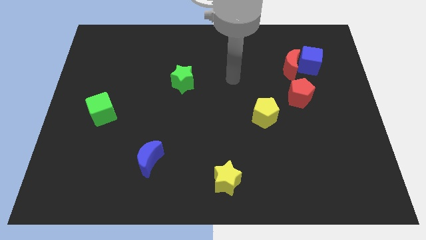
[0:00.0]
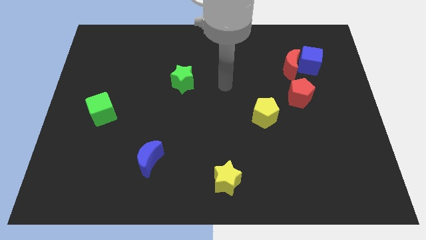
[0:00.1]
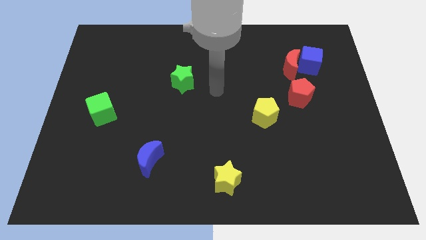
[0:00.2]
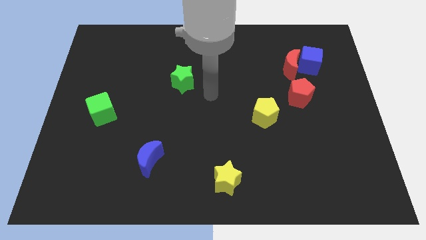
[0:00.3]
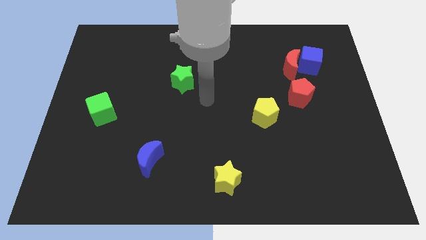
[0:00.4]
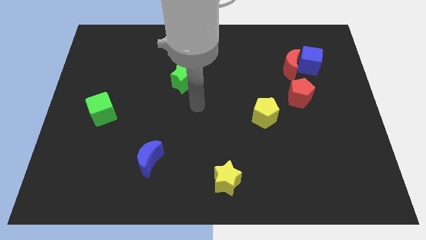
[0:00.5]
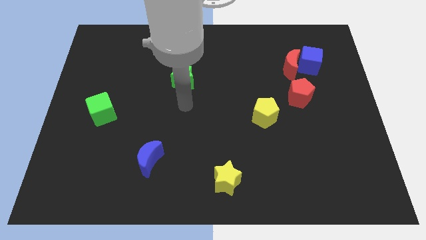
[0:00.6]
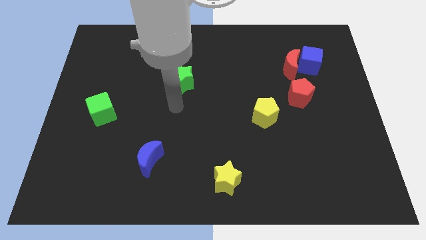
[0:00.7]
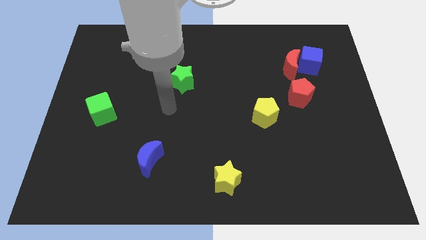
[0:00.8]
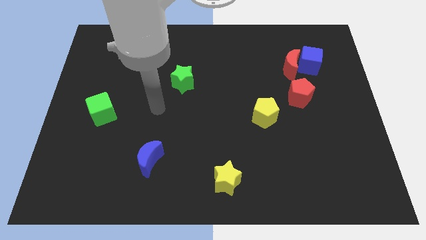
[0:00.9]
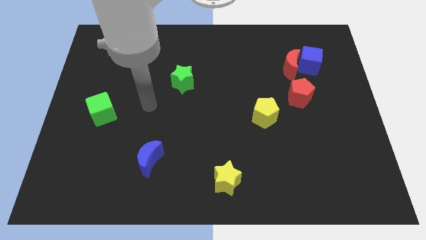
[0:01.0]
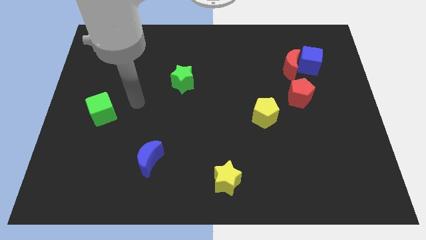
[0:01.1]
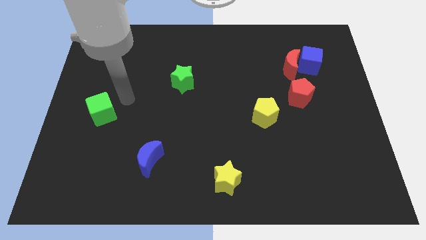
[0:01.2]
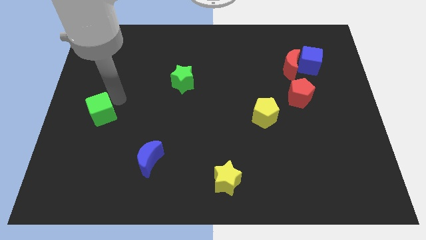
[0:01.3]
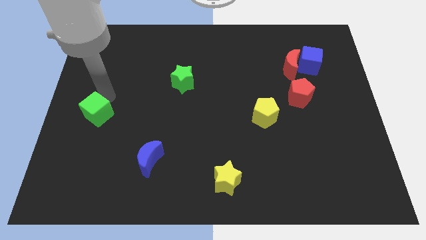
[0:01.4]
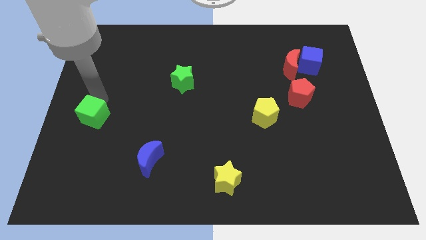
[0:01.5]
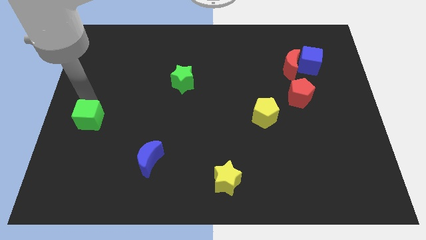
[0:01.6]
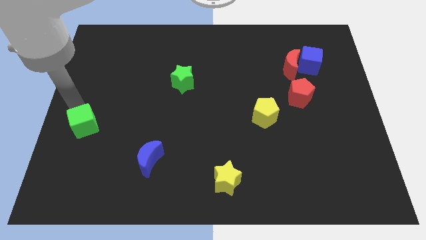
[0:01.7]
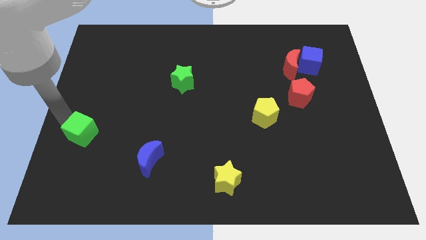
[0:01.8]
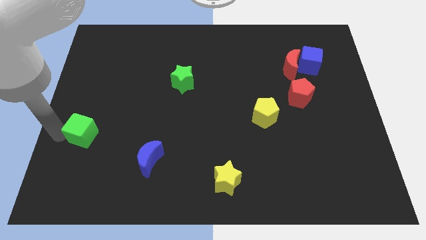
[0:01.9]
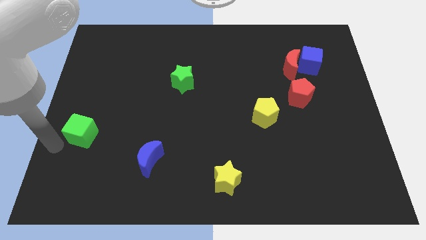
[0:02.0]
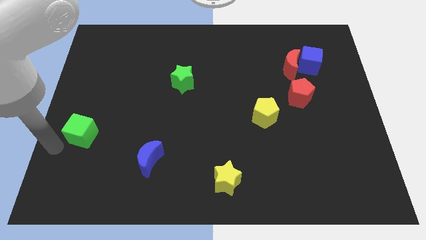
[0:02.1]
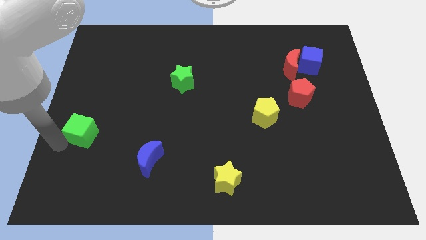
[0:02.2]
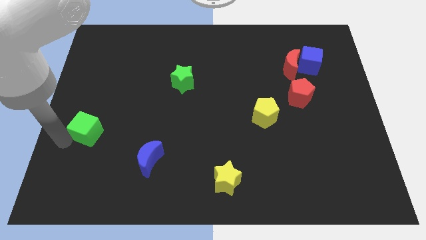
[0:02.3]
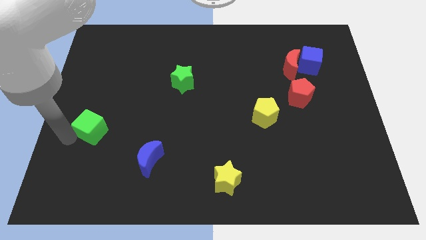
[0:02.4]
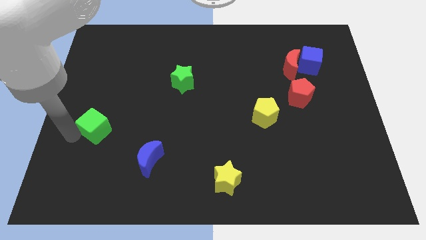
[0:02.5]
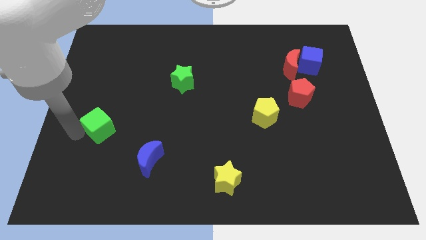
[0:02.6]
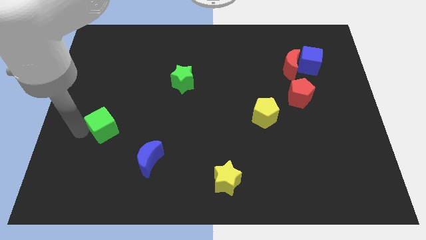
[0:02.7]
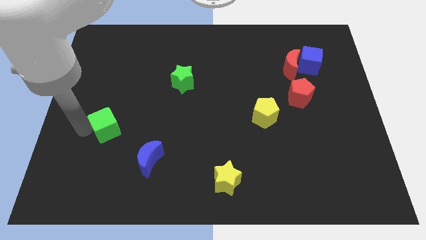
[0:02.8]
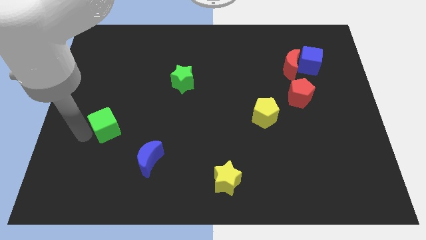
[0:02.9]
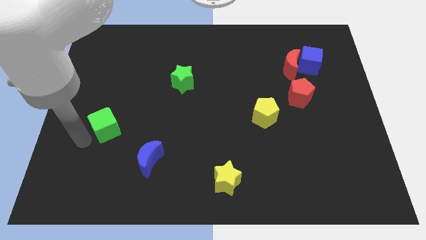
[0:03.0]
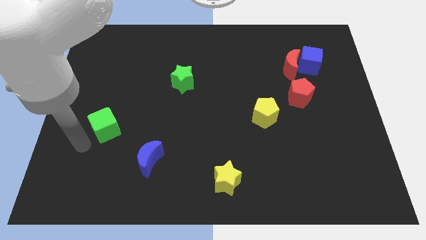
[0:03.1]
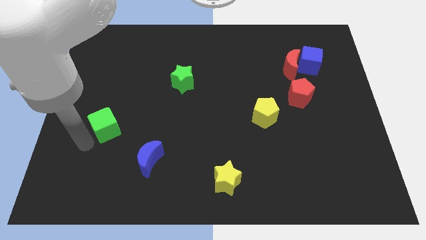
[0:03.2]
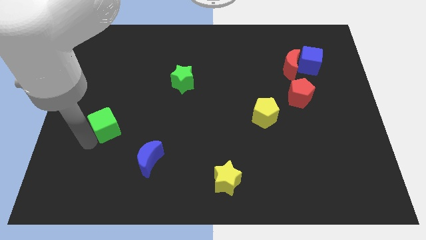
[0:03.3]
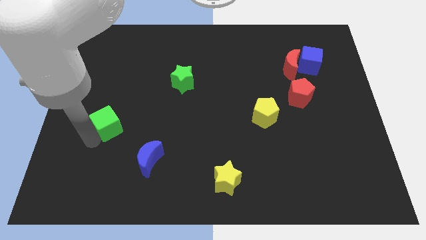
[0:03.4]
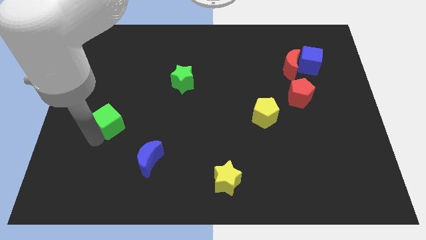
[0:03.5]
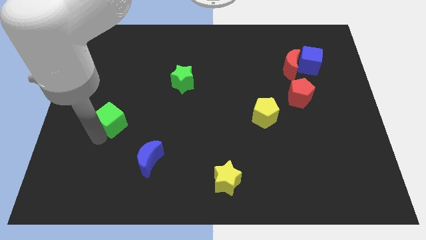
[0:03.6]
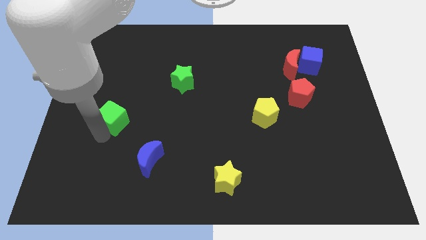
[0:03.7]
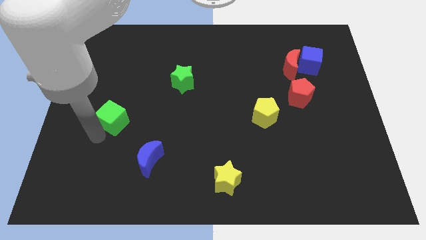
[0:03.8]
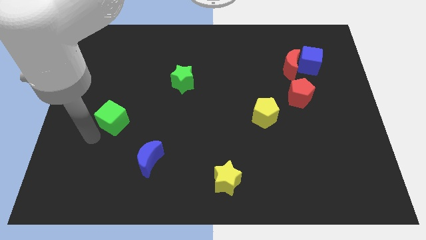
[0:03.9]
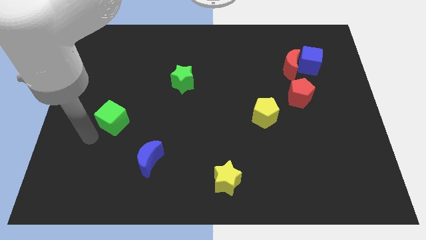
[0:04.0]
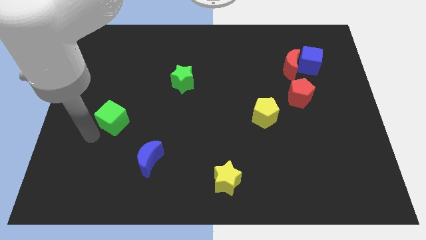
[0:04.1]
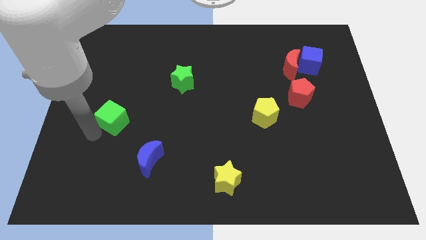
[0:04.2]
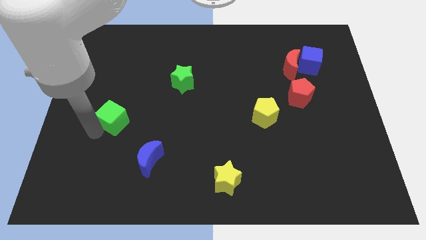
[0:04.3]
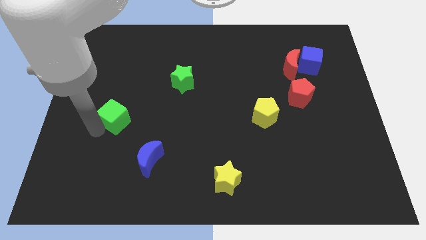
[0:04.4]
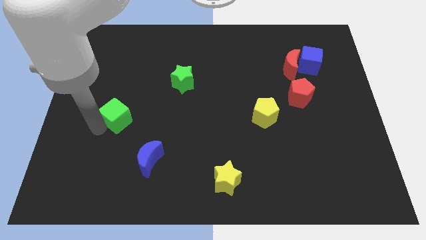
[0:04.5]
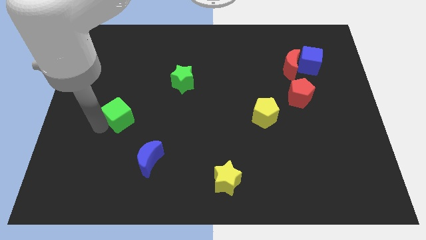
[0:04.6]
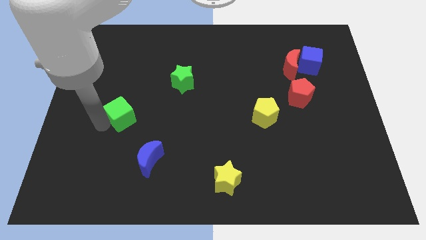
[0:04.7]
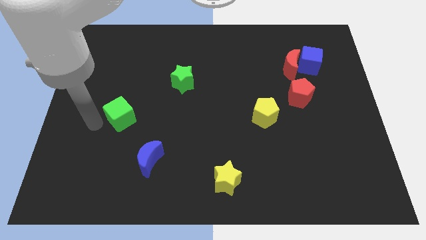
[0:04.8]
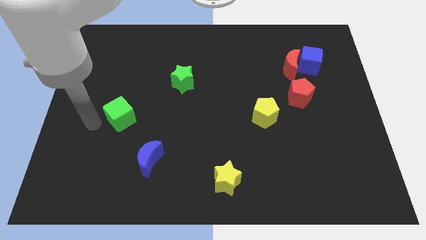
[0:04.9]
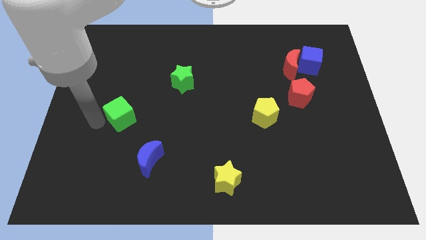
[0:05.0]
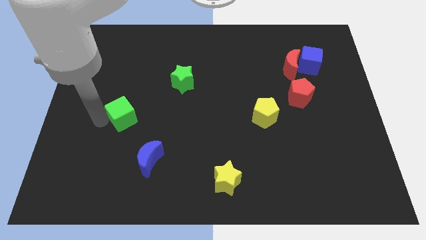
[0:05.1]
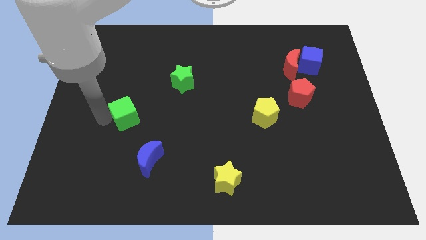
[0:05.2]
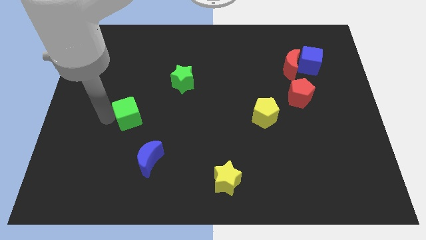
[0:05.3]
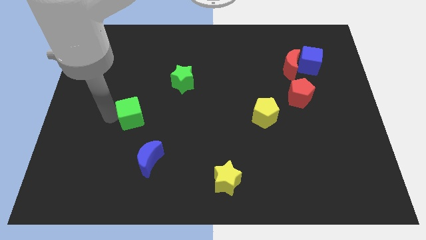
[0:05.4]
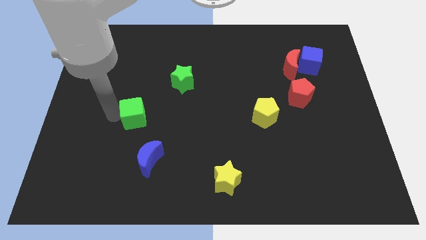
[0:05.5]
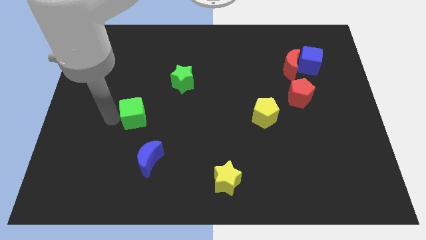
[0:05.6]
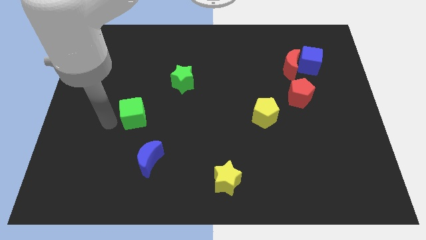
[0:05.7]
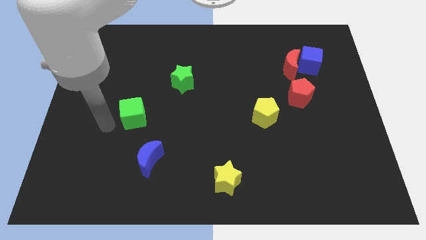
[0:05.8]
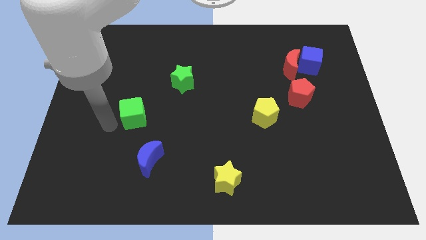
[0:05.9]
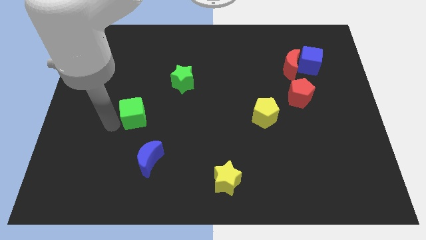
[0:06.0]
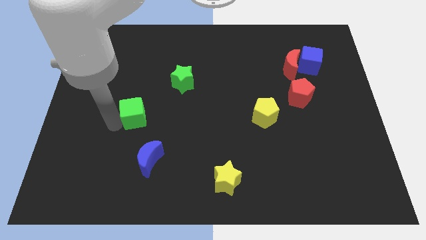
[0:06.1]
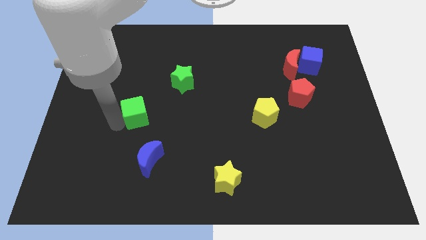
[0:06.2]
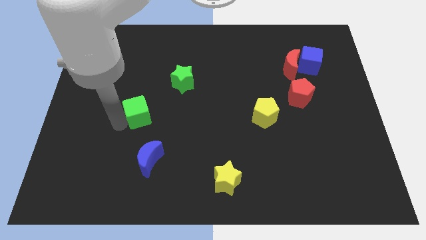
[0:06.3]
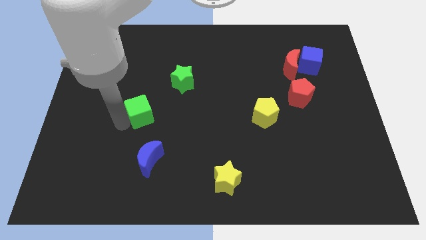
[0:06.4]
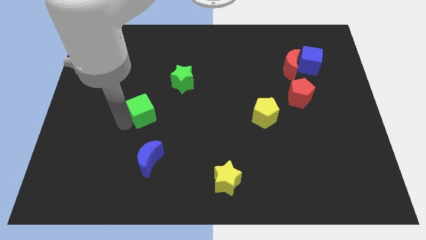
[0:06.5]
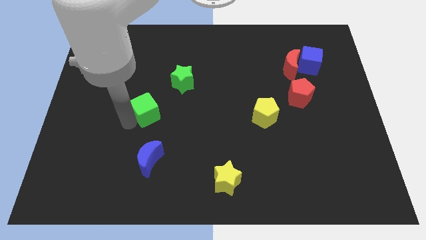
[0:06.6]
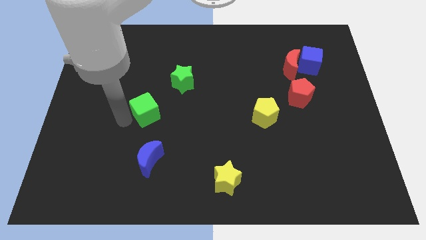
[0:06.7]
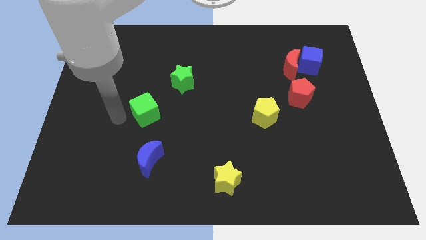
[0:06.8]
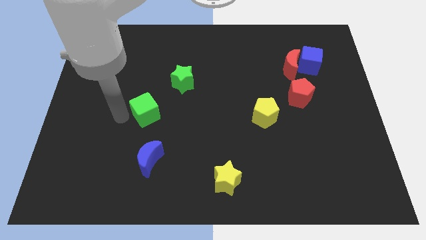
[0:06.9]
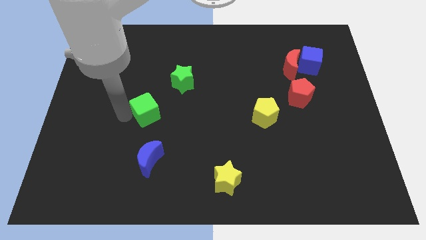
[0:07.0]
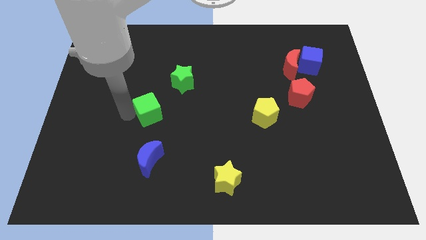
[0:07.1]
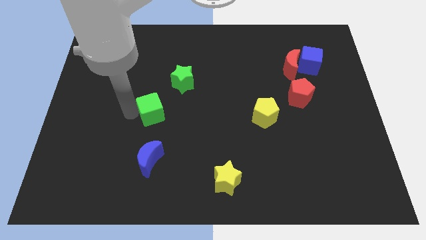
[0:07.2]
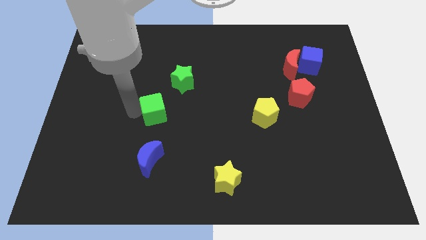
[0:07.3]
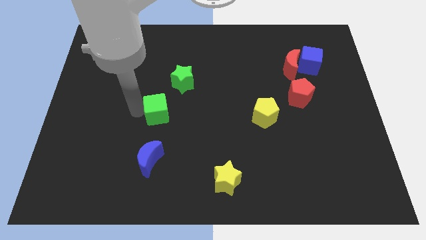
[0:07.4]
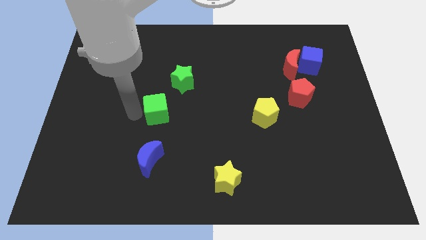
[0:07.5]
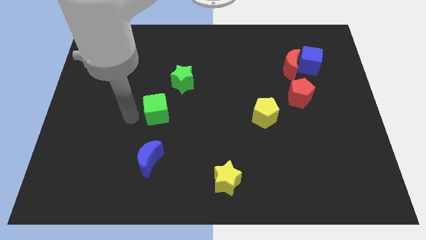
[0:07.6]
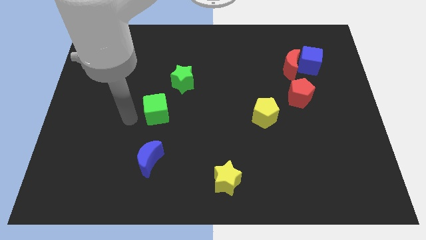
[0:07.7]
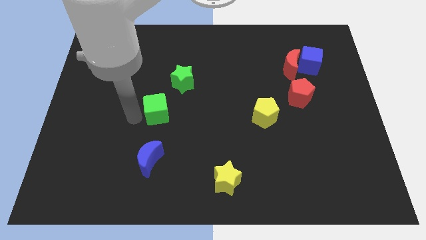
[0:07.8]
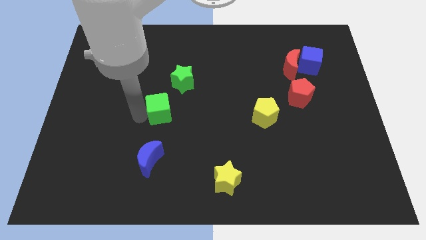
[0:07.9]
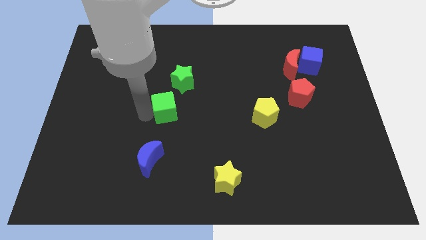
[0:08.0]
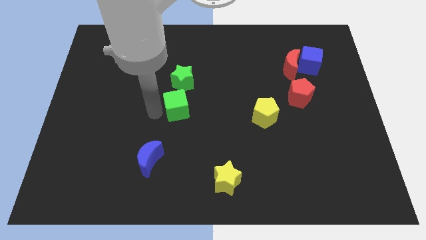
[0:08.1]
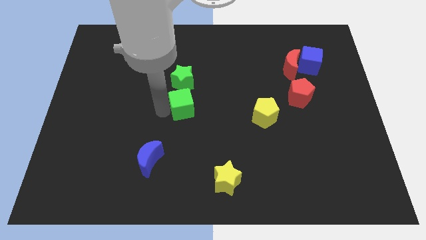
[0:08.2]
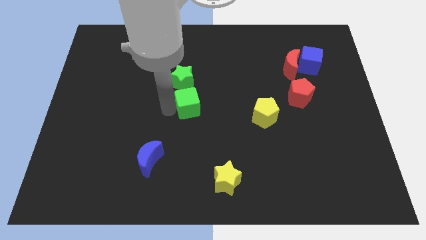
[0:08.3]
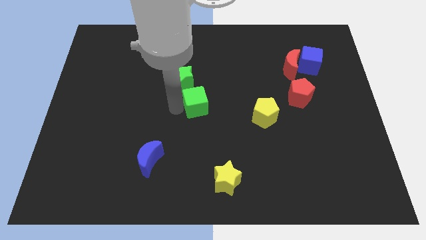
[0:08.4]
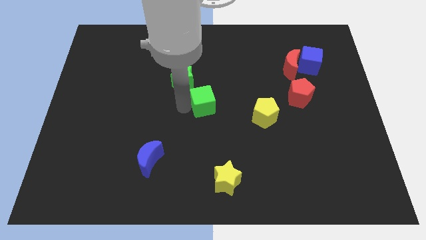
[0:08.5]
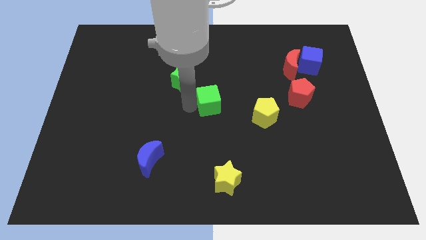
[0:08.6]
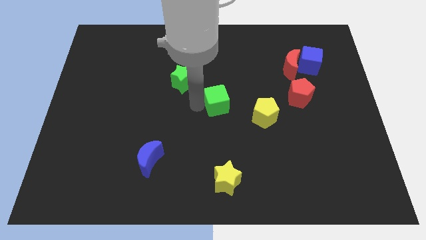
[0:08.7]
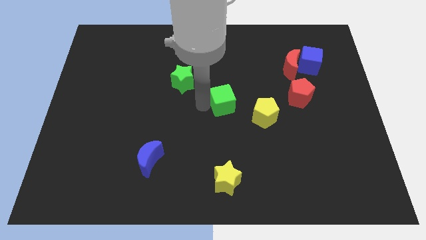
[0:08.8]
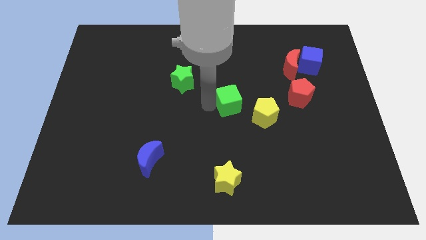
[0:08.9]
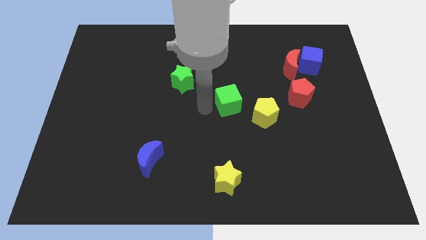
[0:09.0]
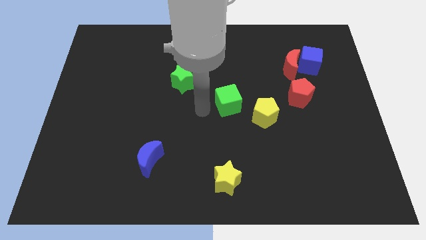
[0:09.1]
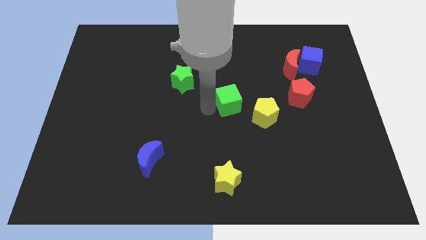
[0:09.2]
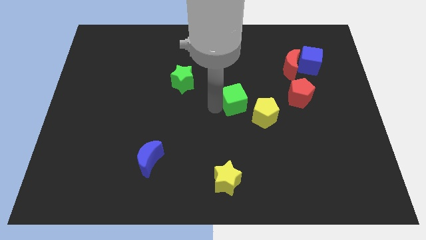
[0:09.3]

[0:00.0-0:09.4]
slide the green cube left of the red pentagon
